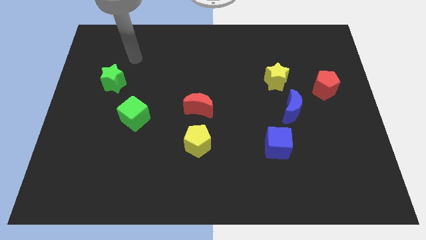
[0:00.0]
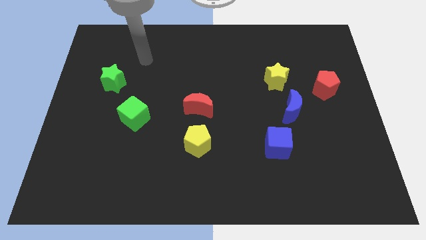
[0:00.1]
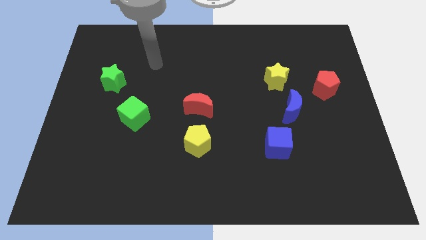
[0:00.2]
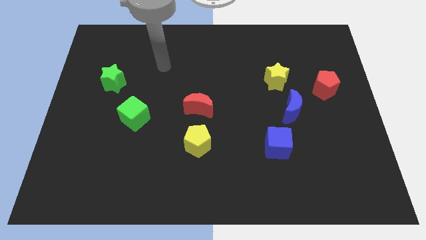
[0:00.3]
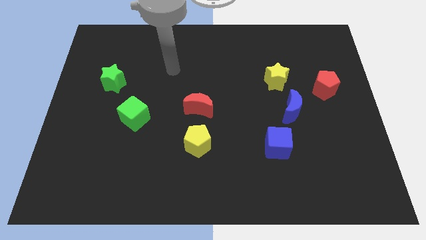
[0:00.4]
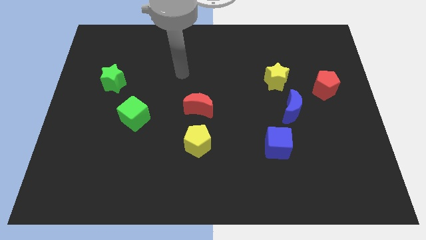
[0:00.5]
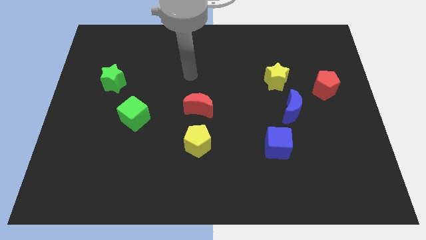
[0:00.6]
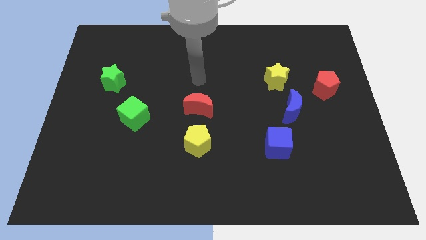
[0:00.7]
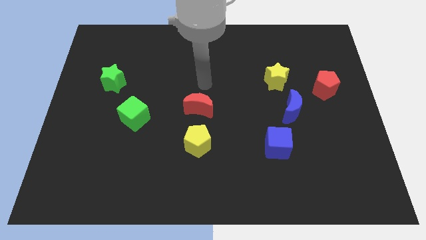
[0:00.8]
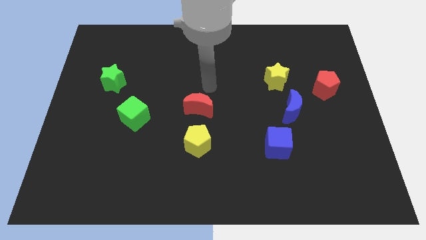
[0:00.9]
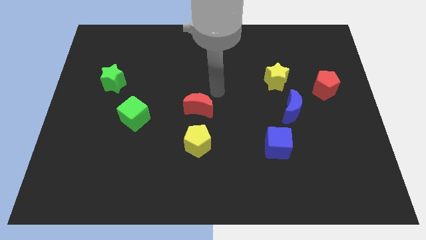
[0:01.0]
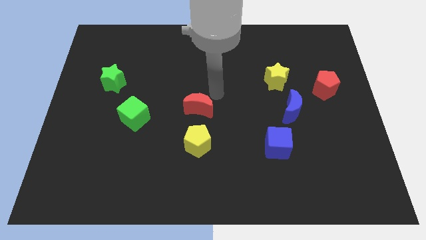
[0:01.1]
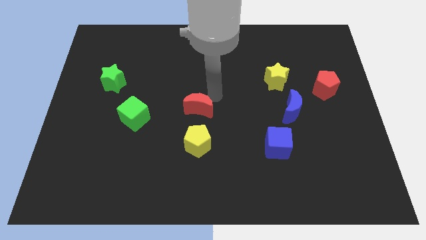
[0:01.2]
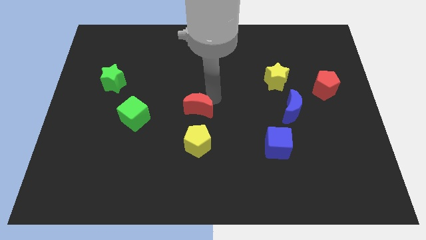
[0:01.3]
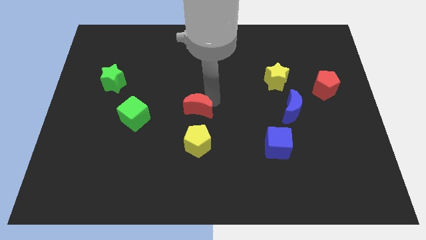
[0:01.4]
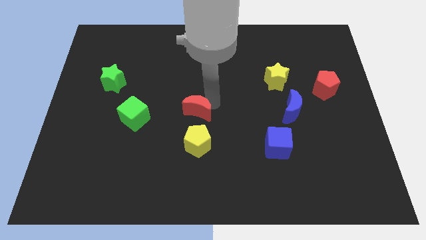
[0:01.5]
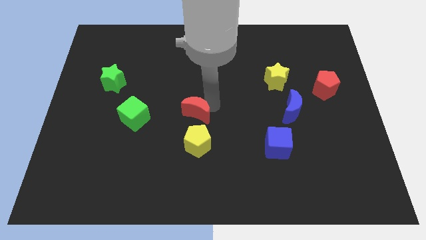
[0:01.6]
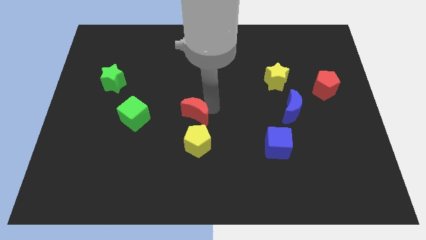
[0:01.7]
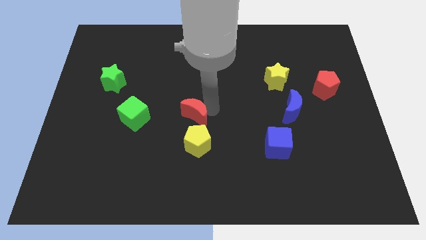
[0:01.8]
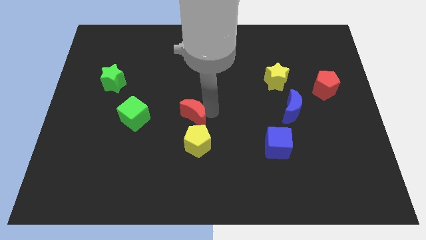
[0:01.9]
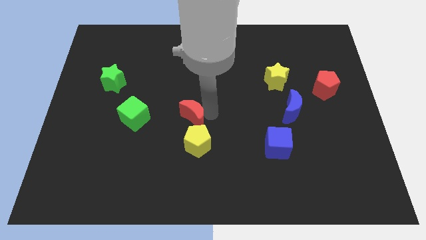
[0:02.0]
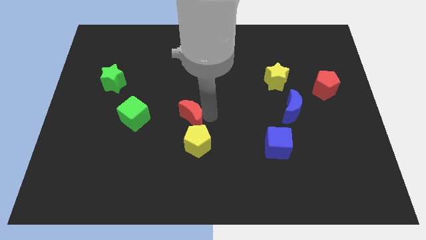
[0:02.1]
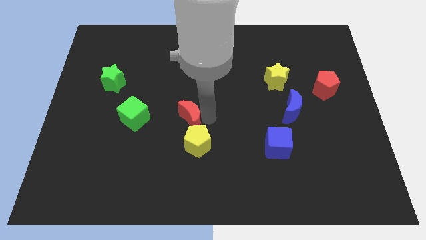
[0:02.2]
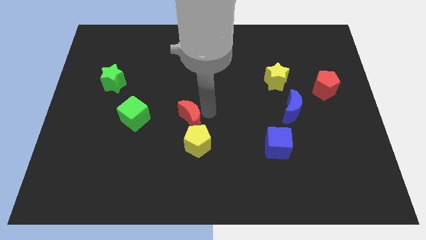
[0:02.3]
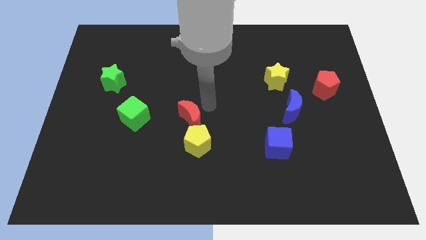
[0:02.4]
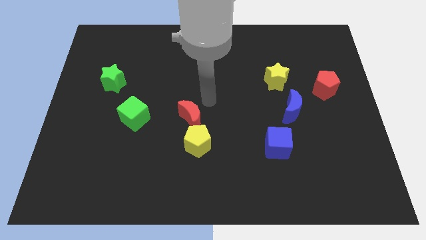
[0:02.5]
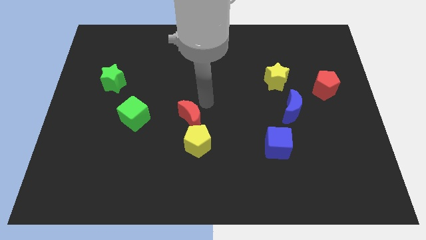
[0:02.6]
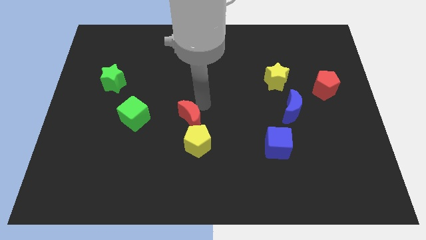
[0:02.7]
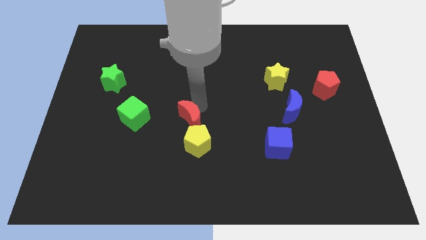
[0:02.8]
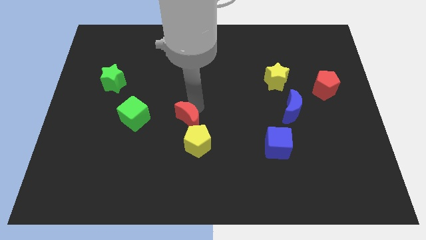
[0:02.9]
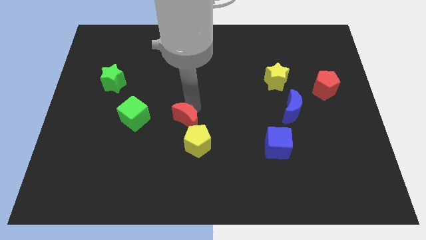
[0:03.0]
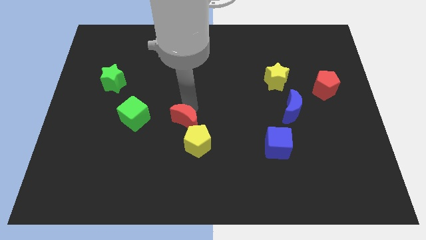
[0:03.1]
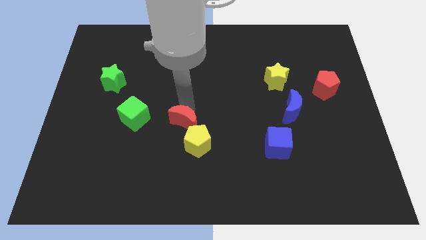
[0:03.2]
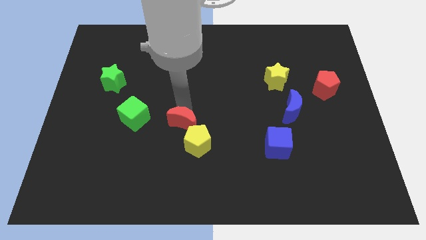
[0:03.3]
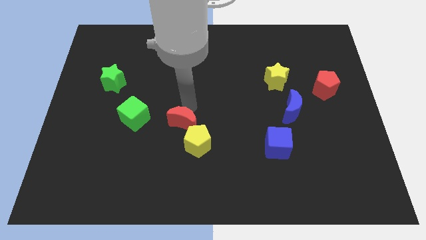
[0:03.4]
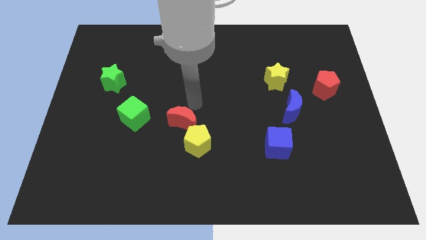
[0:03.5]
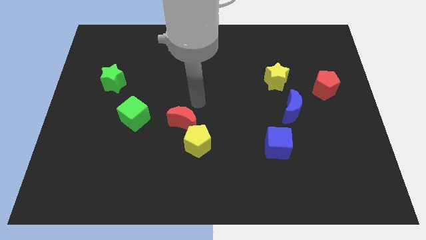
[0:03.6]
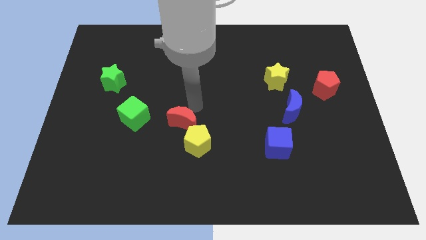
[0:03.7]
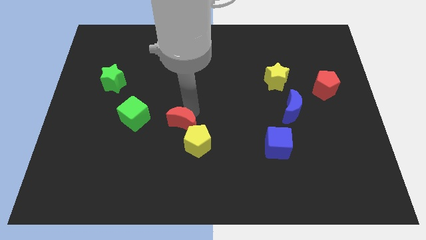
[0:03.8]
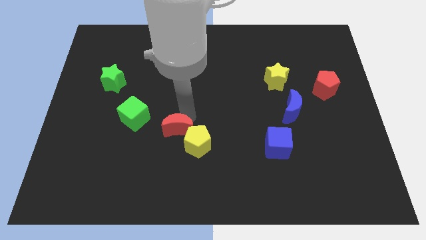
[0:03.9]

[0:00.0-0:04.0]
slide the red moon diagonally down and to the left somewhat

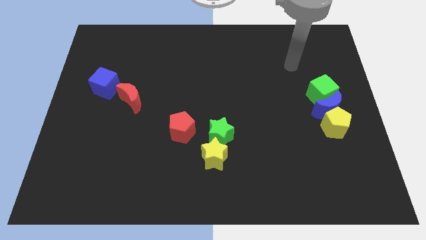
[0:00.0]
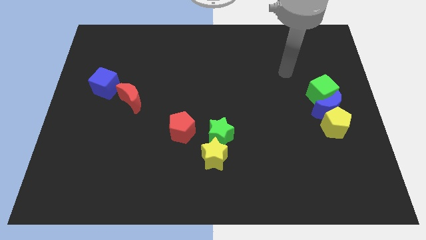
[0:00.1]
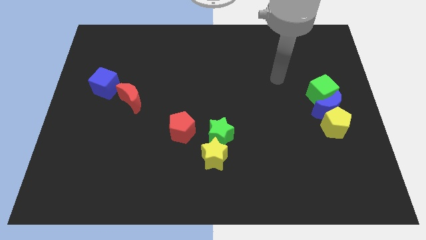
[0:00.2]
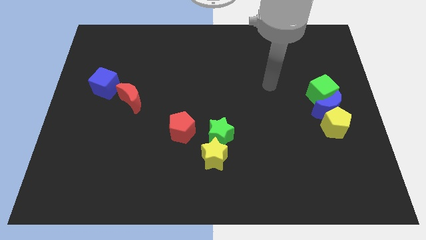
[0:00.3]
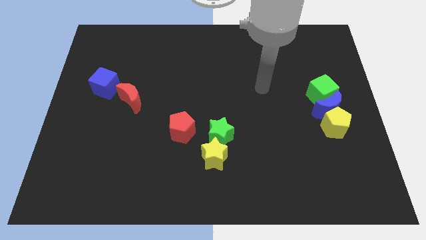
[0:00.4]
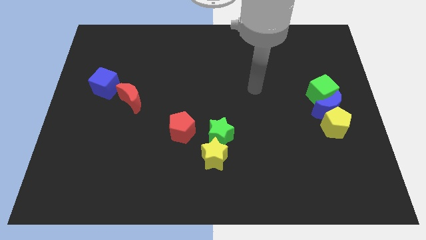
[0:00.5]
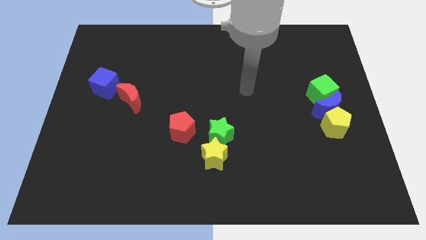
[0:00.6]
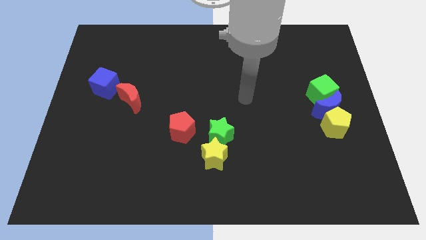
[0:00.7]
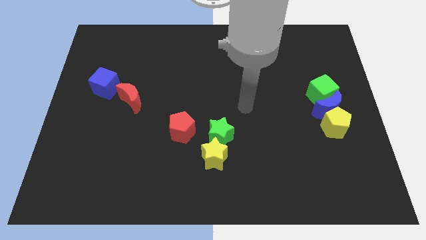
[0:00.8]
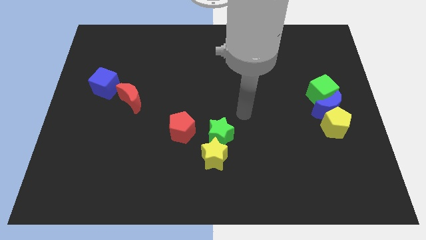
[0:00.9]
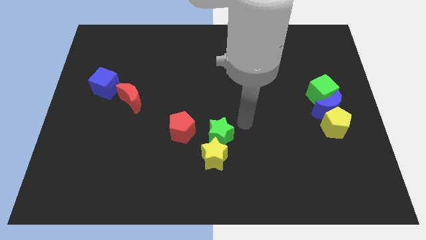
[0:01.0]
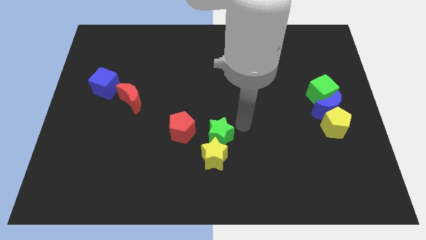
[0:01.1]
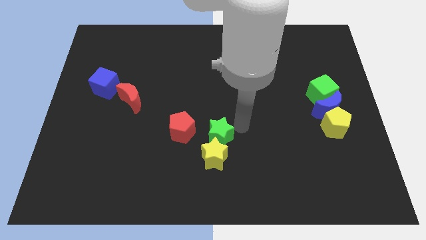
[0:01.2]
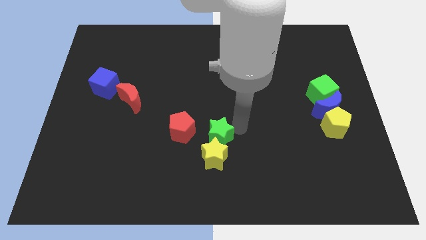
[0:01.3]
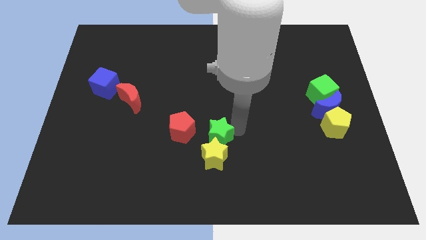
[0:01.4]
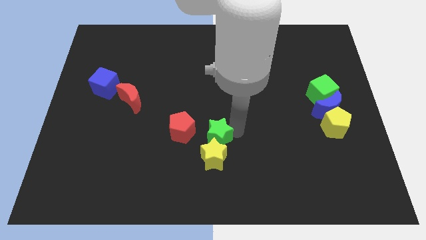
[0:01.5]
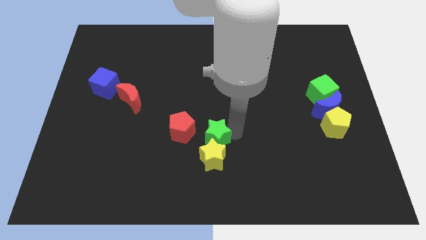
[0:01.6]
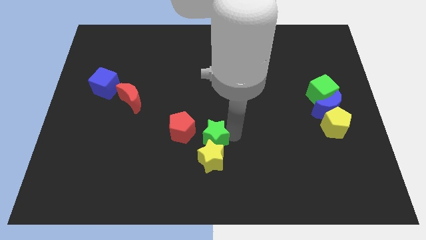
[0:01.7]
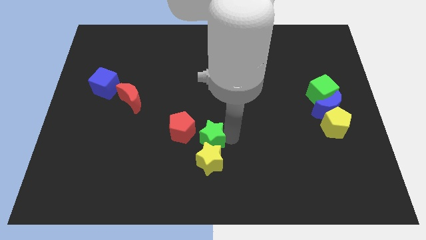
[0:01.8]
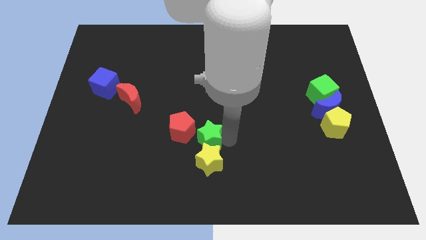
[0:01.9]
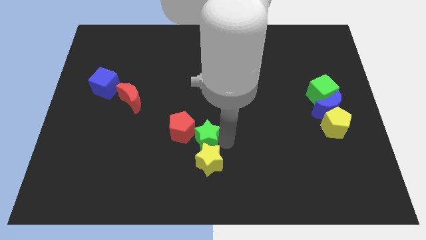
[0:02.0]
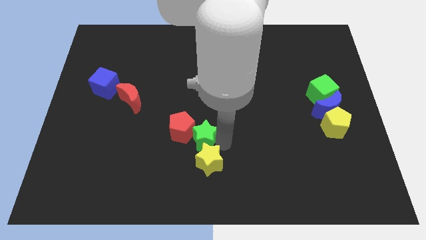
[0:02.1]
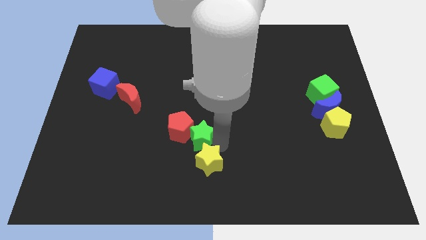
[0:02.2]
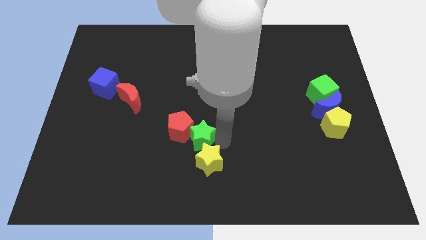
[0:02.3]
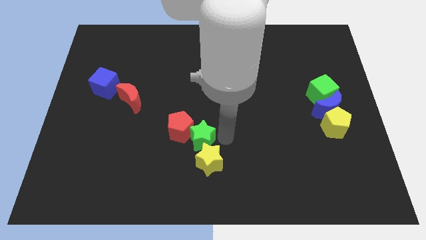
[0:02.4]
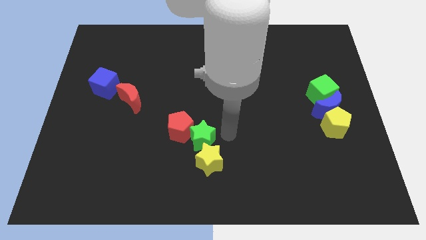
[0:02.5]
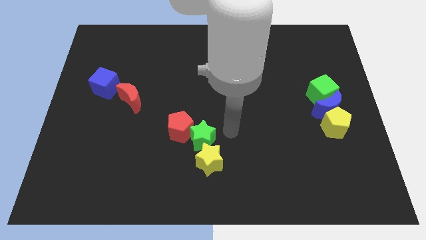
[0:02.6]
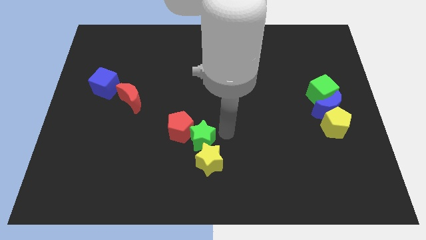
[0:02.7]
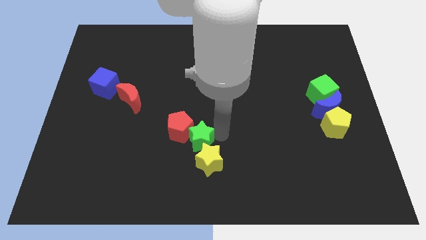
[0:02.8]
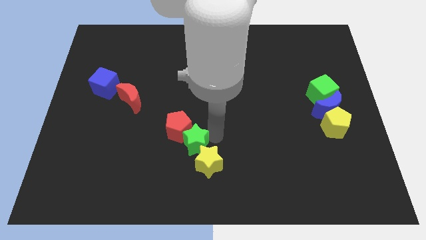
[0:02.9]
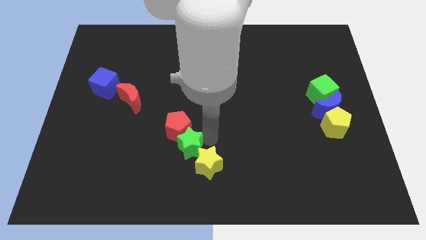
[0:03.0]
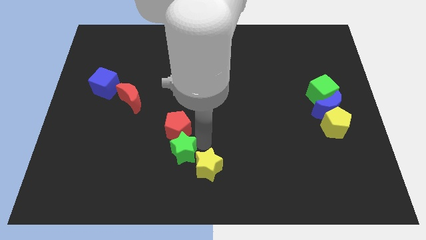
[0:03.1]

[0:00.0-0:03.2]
push the green star slightly to the left

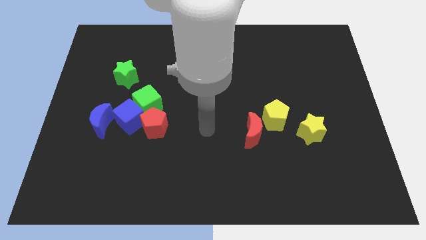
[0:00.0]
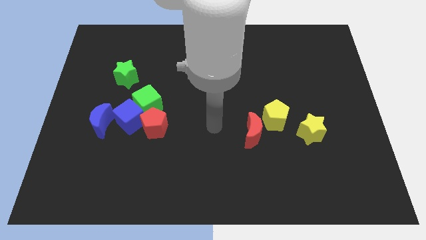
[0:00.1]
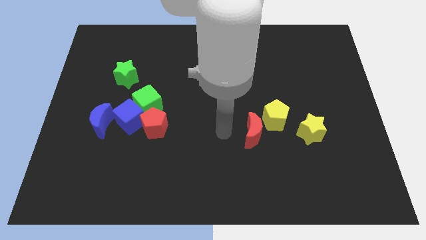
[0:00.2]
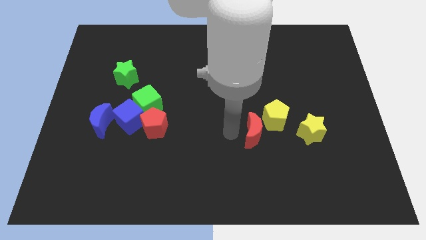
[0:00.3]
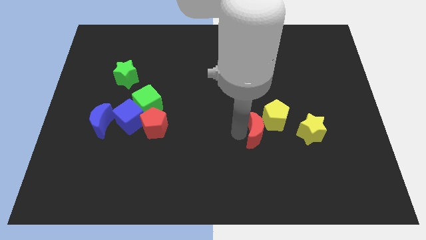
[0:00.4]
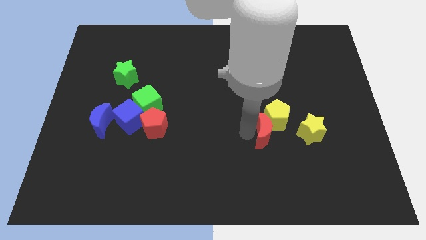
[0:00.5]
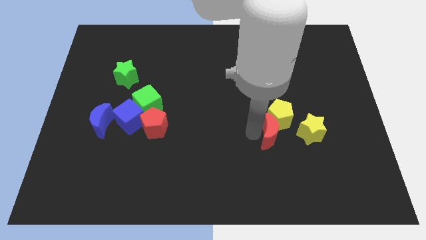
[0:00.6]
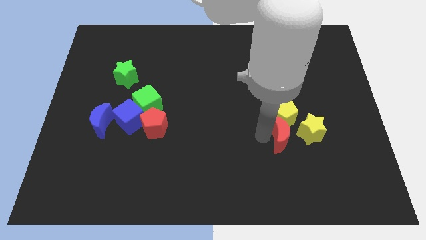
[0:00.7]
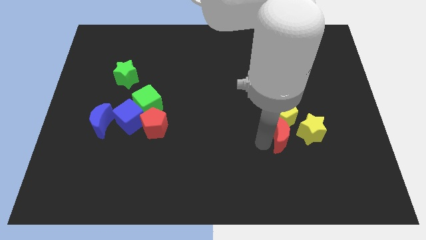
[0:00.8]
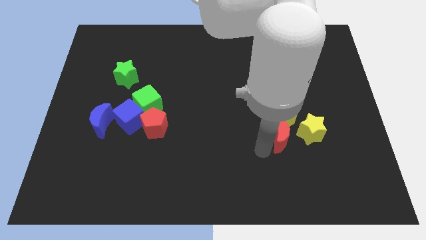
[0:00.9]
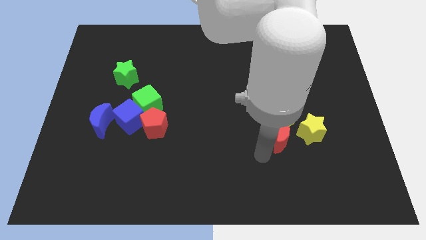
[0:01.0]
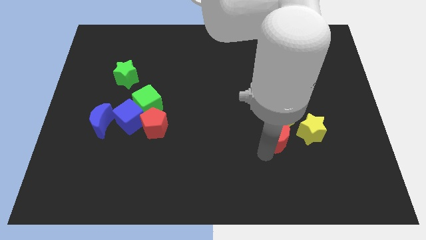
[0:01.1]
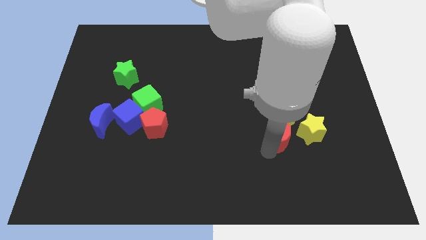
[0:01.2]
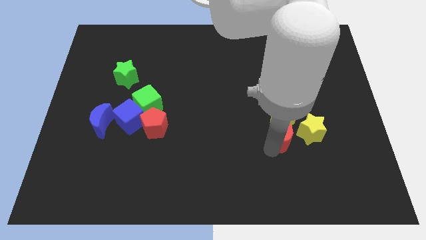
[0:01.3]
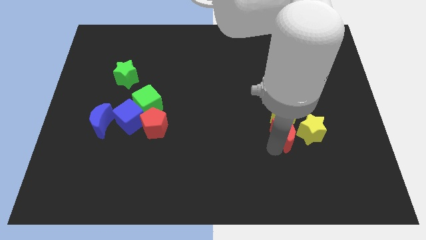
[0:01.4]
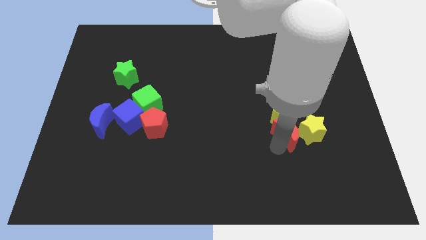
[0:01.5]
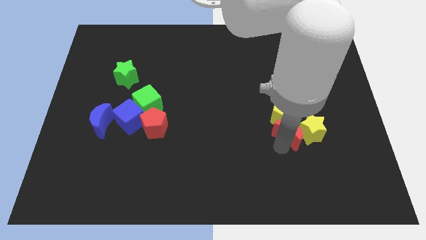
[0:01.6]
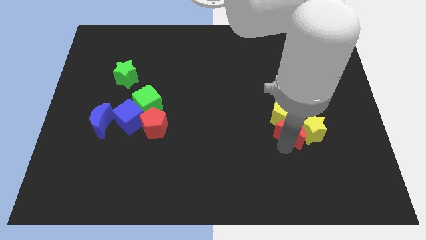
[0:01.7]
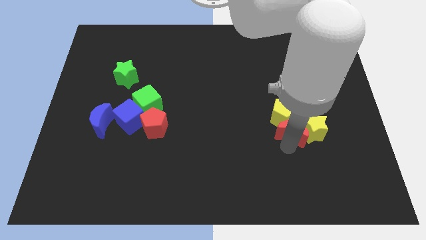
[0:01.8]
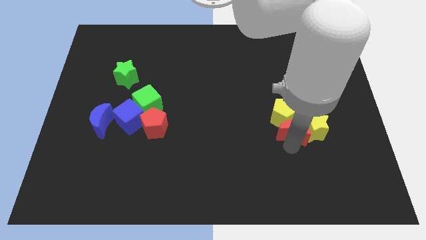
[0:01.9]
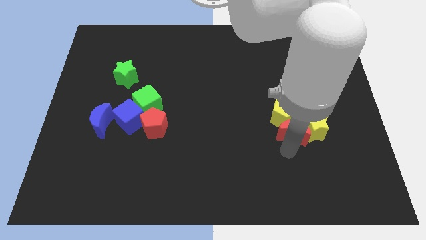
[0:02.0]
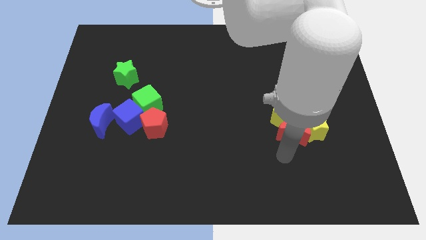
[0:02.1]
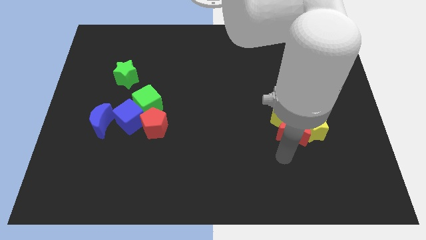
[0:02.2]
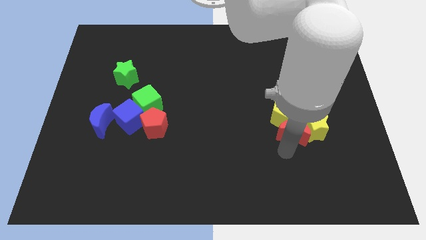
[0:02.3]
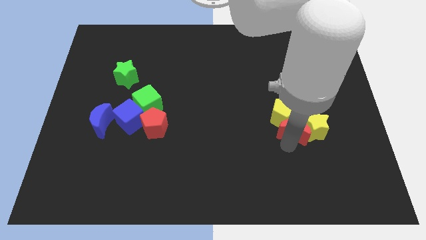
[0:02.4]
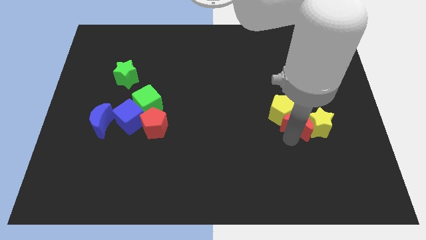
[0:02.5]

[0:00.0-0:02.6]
slide the red moon slightly upwards and to the right diagonally
